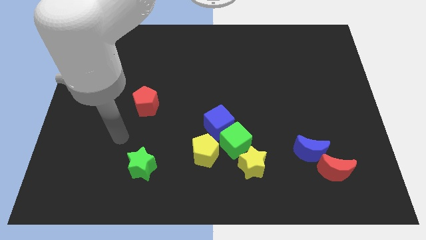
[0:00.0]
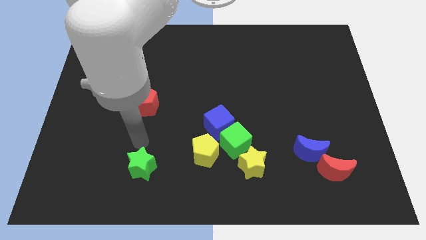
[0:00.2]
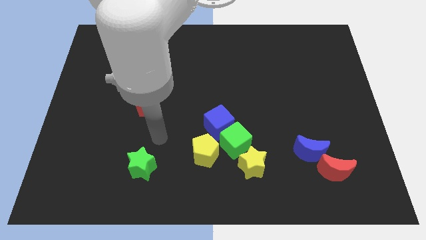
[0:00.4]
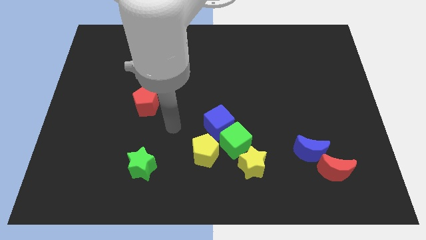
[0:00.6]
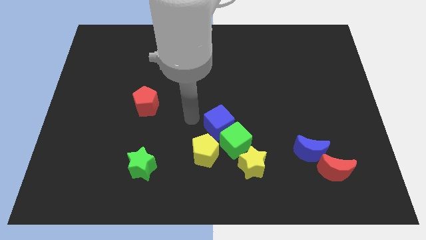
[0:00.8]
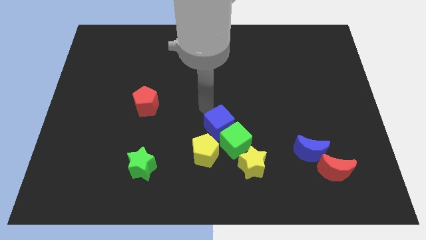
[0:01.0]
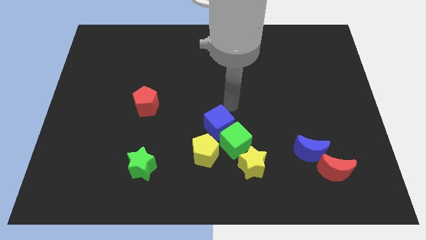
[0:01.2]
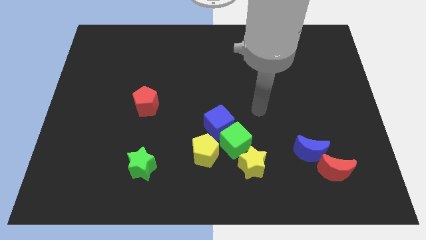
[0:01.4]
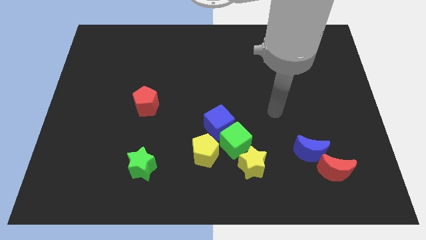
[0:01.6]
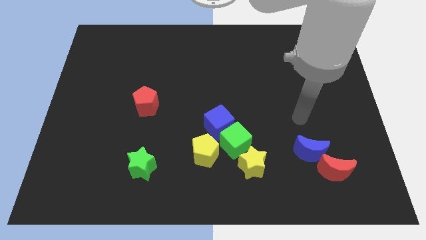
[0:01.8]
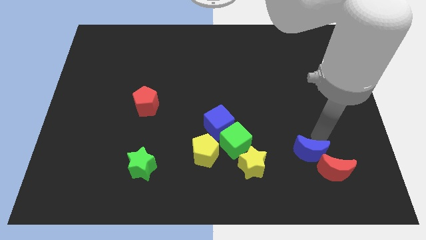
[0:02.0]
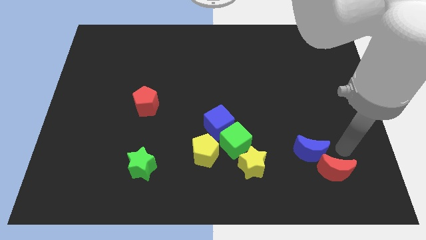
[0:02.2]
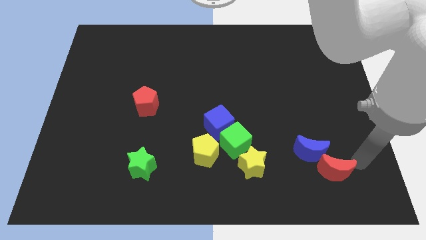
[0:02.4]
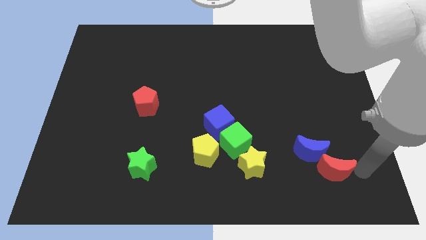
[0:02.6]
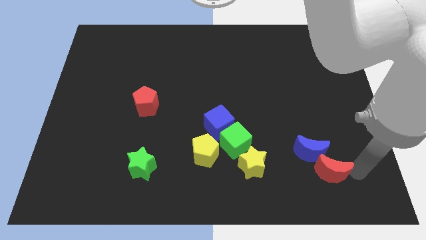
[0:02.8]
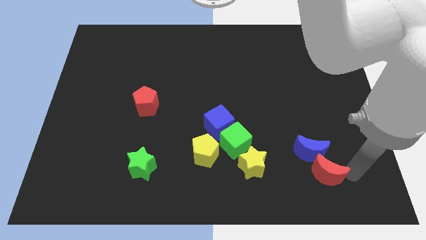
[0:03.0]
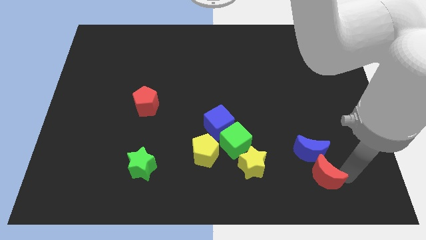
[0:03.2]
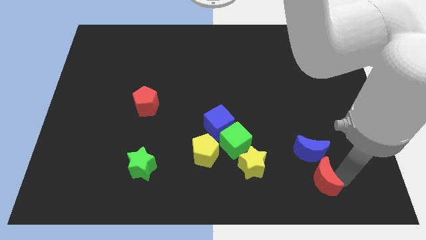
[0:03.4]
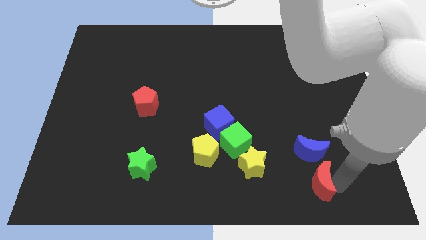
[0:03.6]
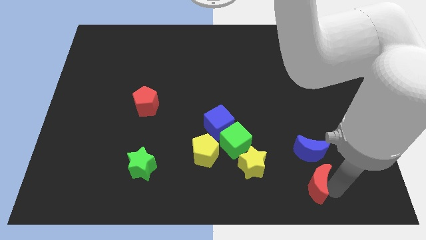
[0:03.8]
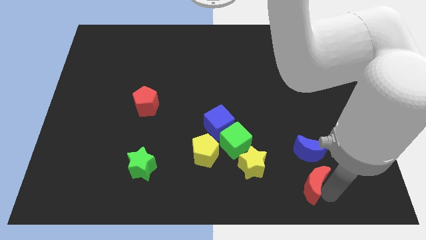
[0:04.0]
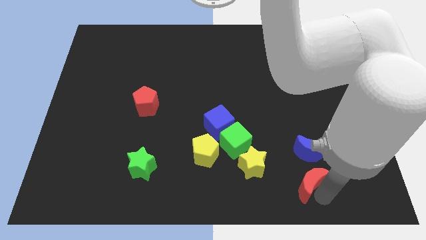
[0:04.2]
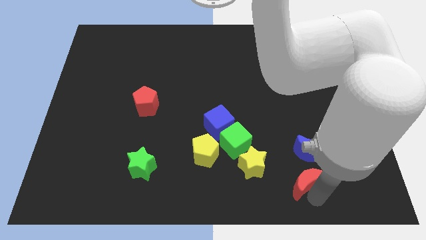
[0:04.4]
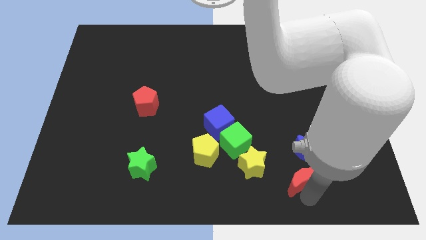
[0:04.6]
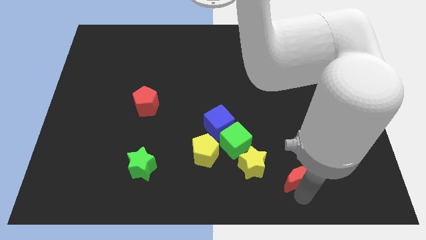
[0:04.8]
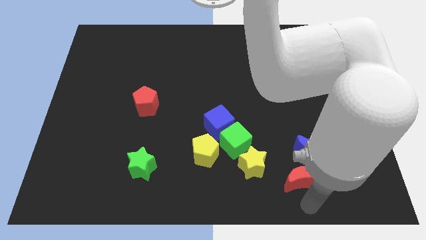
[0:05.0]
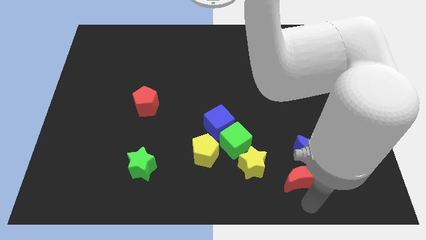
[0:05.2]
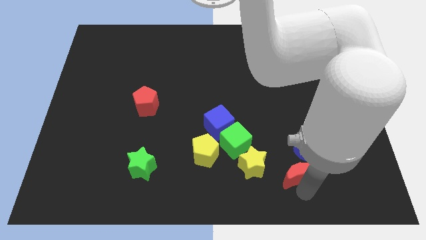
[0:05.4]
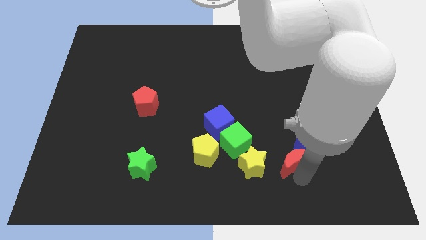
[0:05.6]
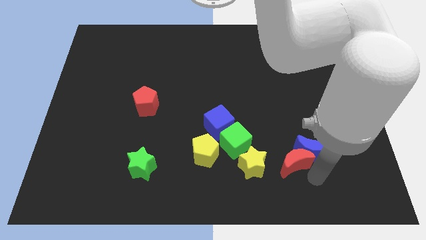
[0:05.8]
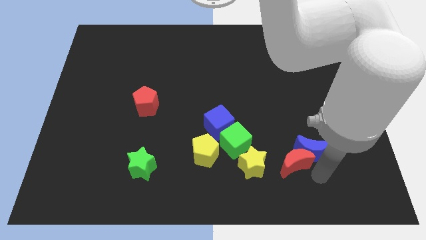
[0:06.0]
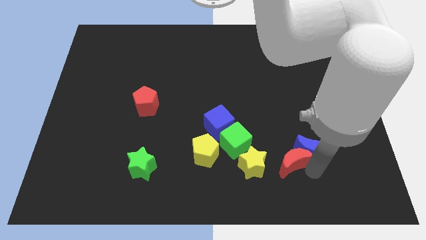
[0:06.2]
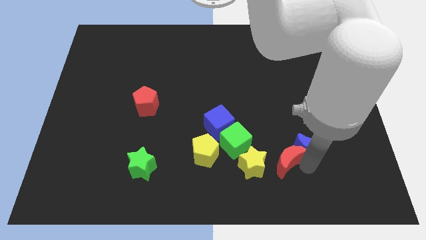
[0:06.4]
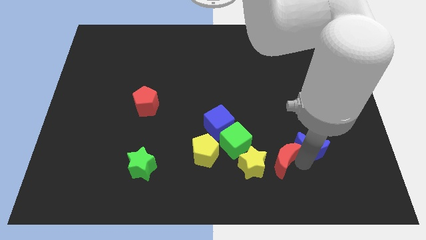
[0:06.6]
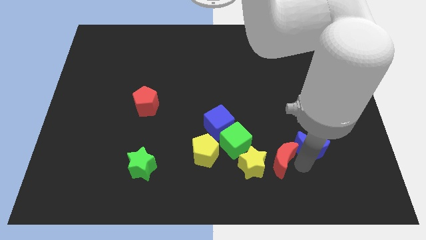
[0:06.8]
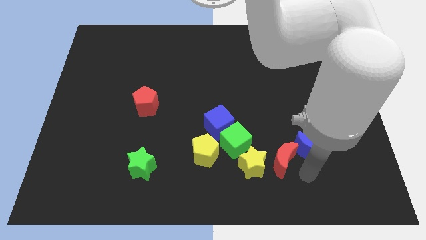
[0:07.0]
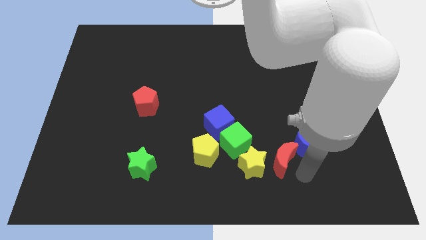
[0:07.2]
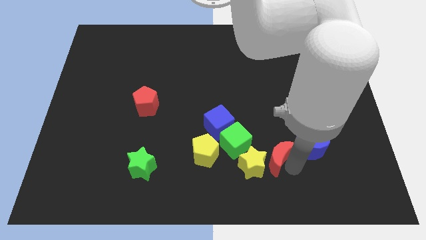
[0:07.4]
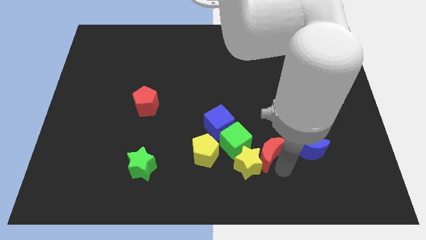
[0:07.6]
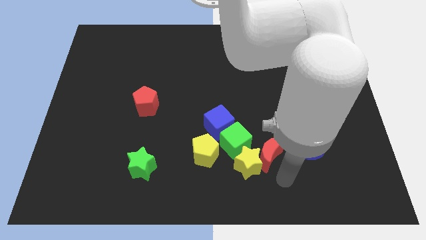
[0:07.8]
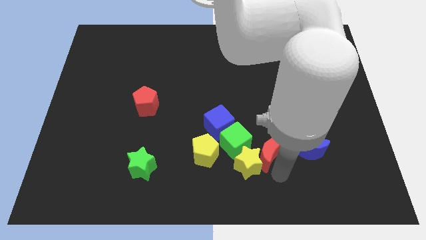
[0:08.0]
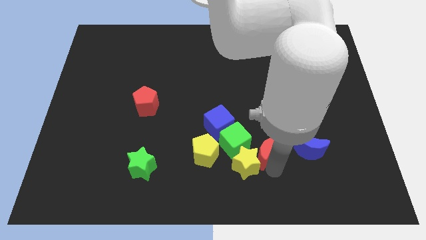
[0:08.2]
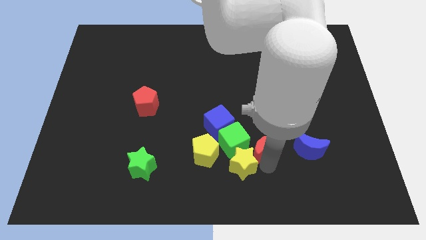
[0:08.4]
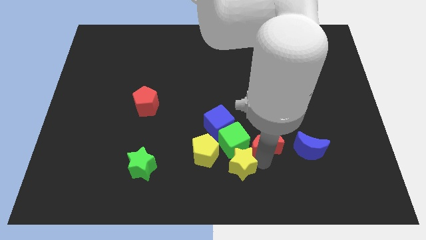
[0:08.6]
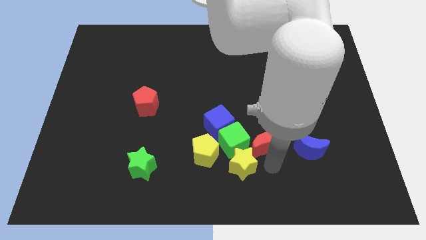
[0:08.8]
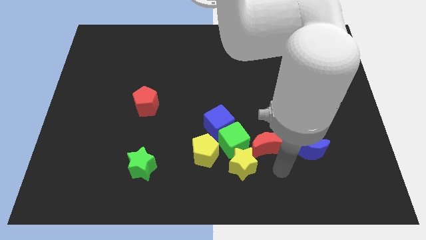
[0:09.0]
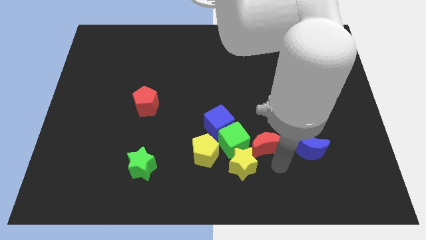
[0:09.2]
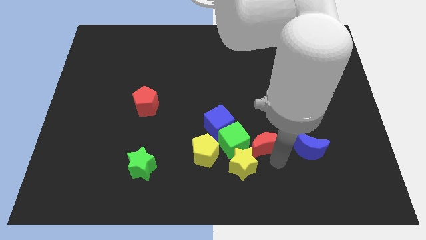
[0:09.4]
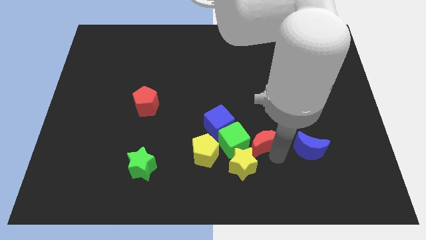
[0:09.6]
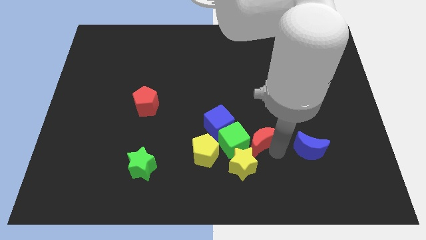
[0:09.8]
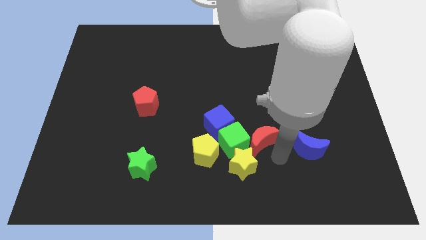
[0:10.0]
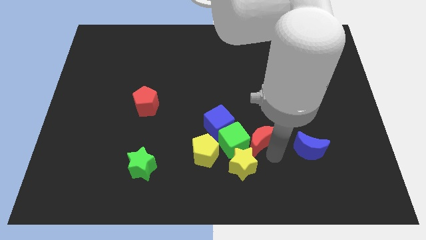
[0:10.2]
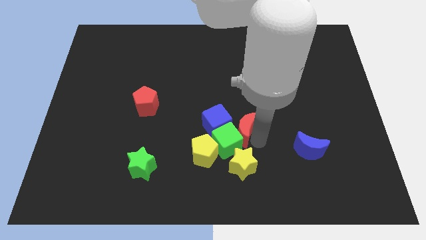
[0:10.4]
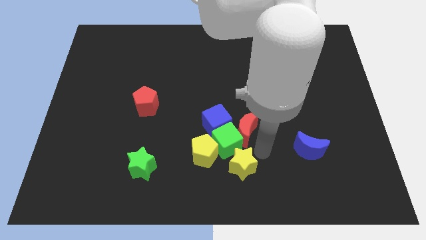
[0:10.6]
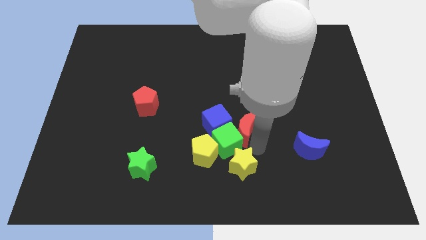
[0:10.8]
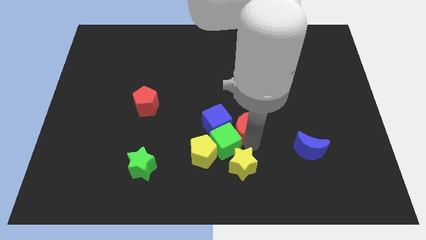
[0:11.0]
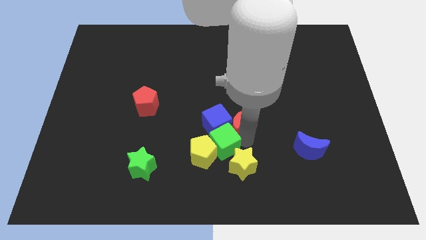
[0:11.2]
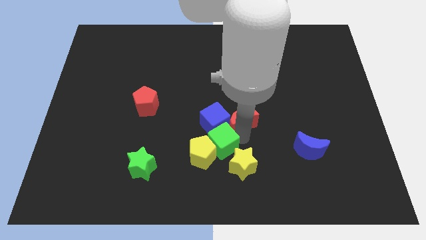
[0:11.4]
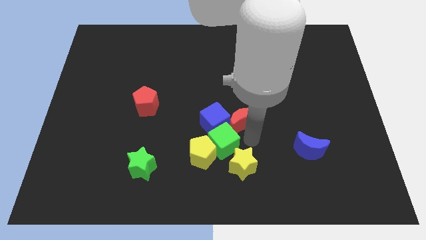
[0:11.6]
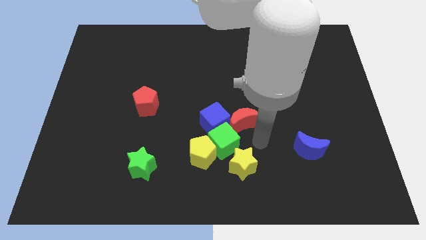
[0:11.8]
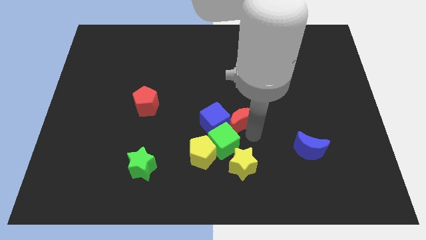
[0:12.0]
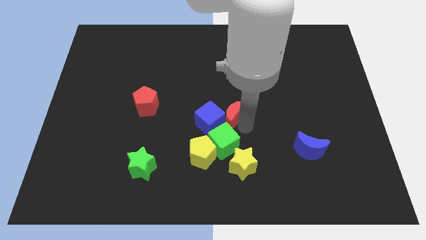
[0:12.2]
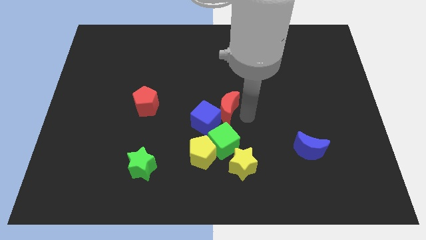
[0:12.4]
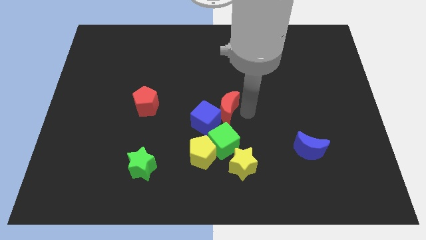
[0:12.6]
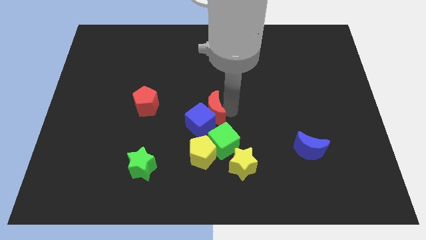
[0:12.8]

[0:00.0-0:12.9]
slide the red moon to the right of the red pentagon
